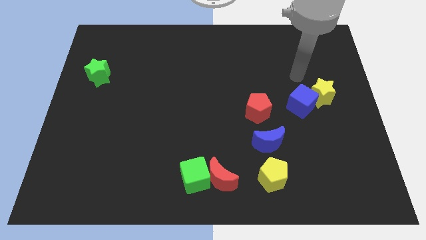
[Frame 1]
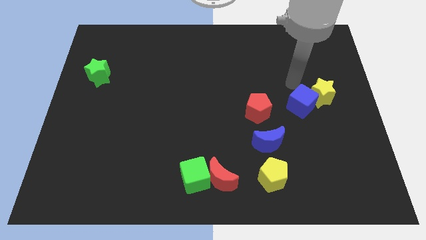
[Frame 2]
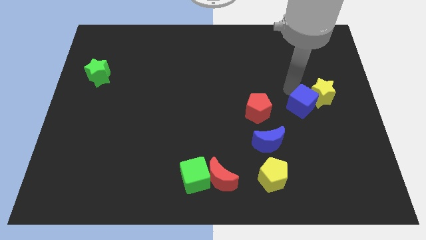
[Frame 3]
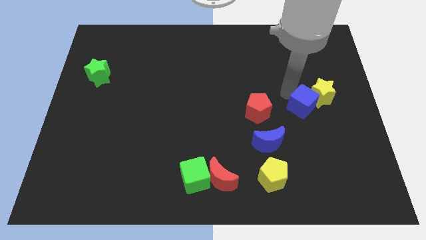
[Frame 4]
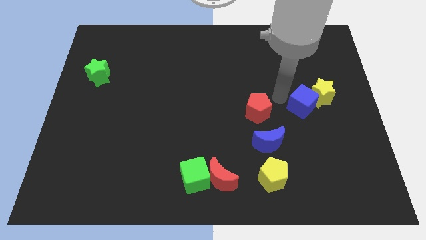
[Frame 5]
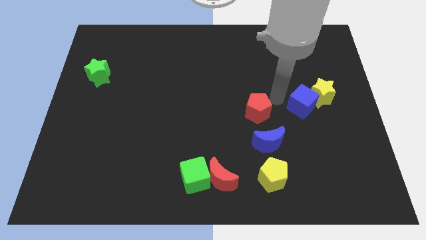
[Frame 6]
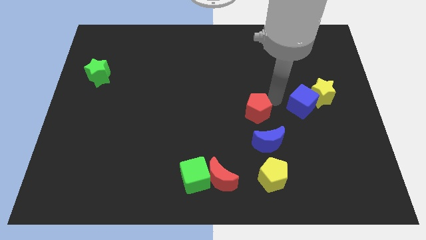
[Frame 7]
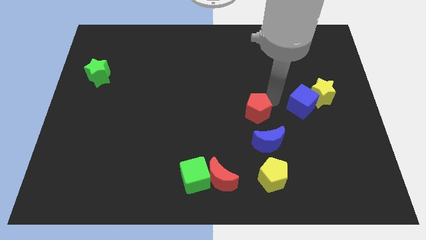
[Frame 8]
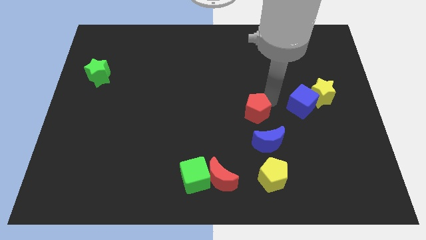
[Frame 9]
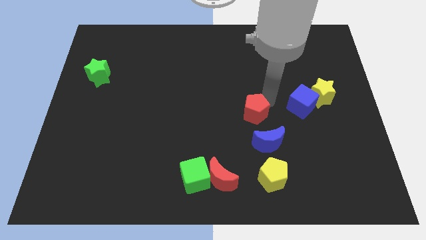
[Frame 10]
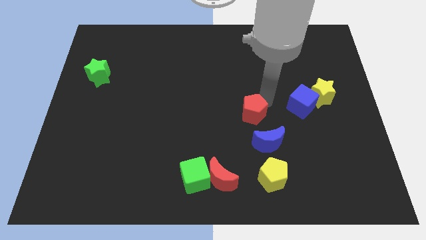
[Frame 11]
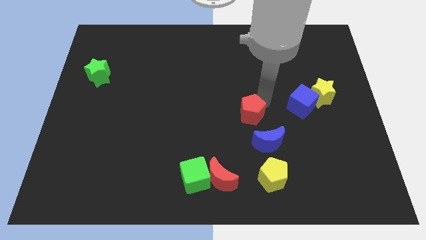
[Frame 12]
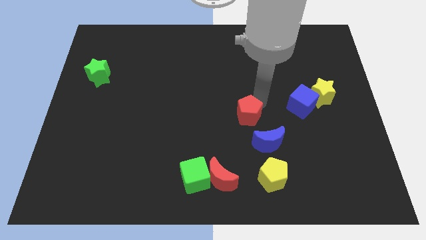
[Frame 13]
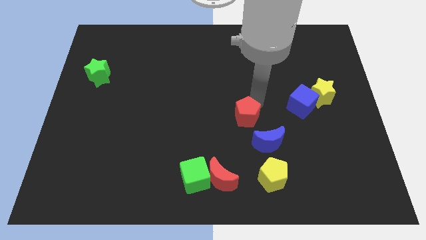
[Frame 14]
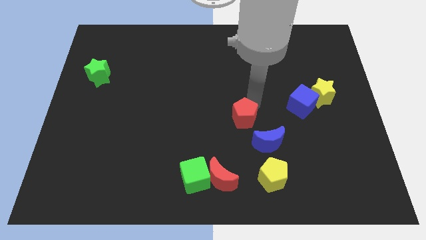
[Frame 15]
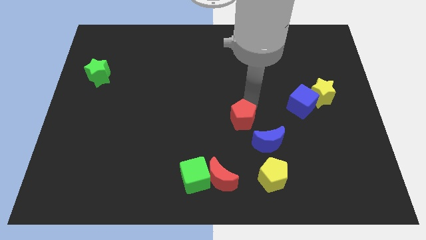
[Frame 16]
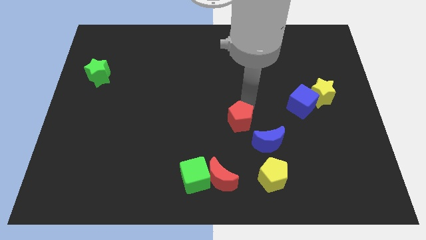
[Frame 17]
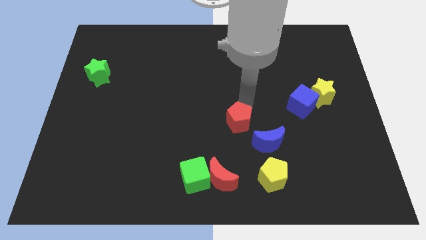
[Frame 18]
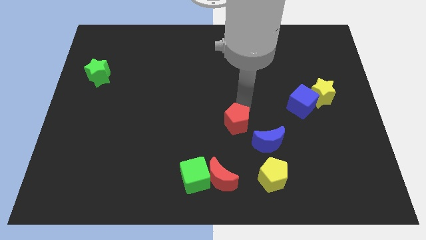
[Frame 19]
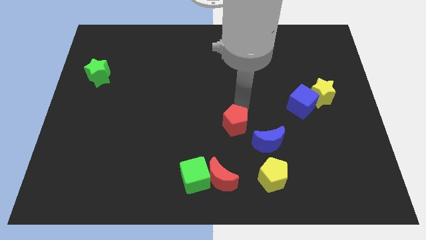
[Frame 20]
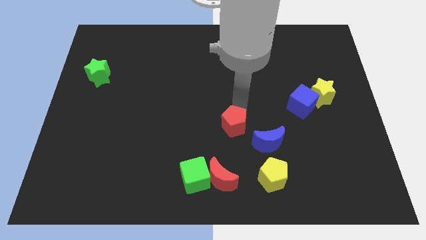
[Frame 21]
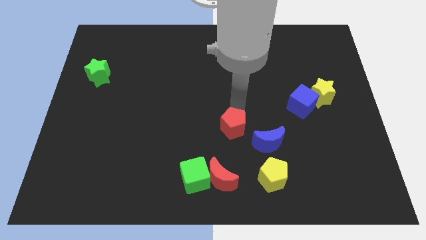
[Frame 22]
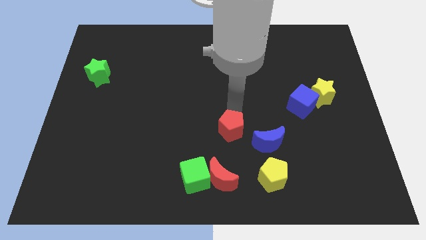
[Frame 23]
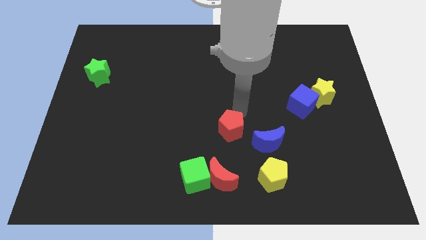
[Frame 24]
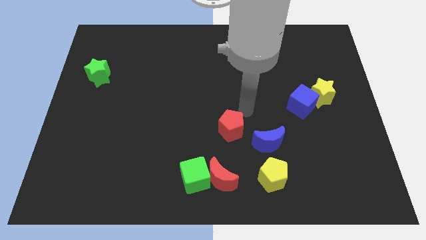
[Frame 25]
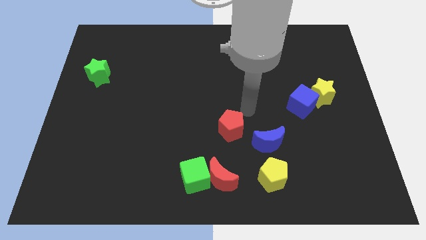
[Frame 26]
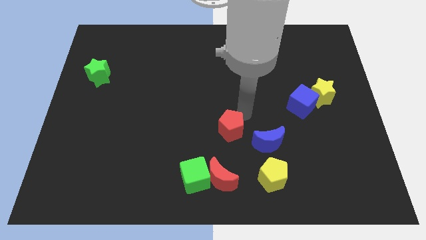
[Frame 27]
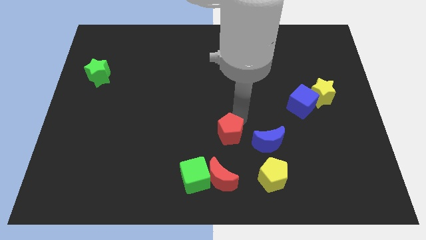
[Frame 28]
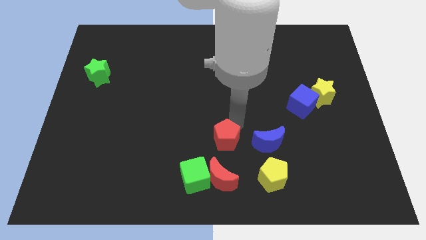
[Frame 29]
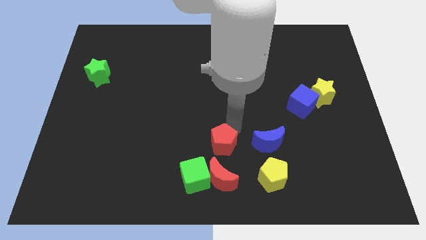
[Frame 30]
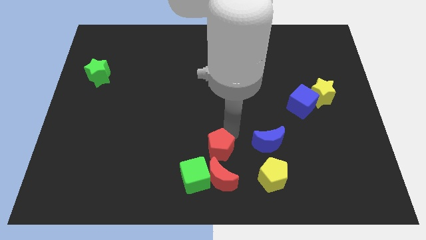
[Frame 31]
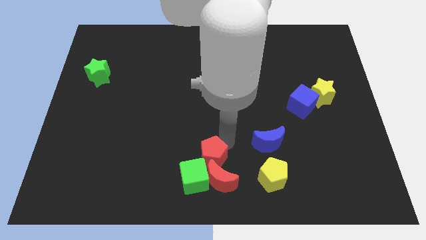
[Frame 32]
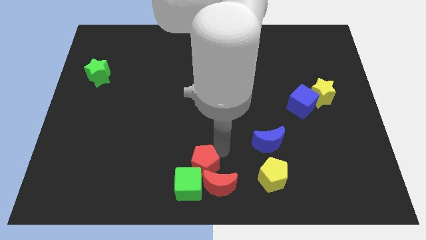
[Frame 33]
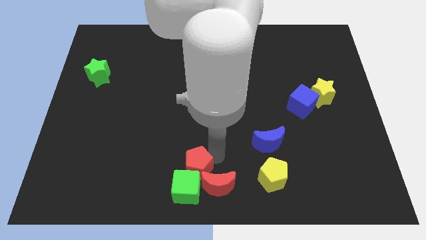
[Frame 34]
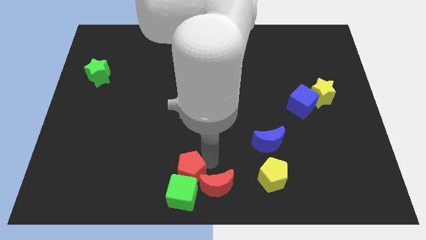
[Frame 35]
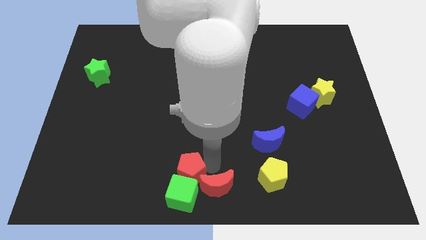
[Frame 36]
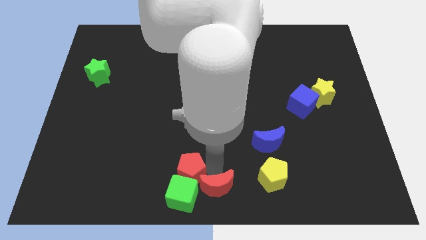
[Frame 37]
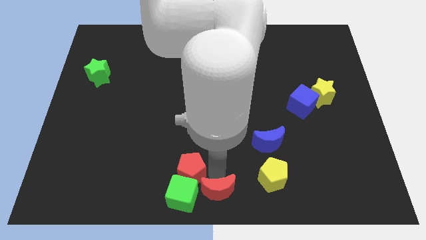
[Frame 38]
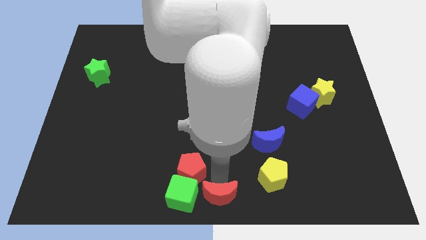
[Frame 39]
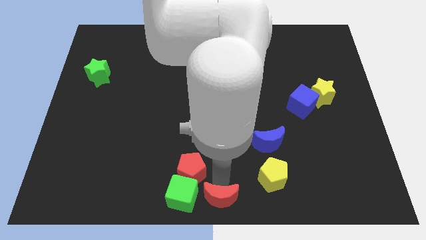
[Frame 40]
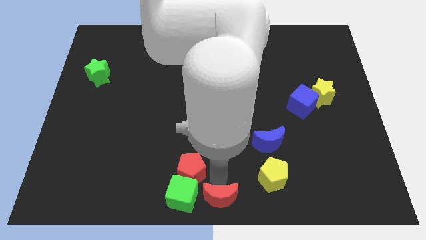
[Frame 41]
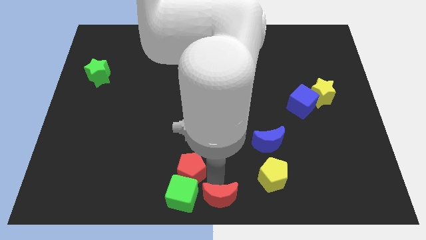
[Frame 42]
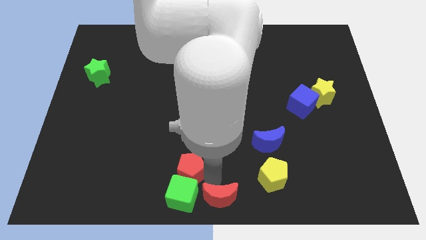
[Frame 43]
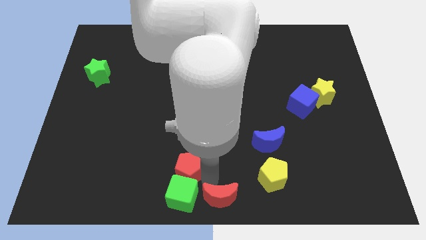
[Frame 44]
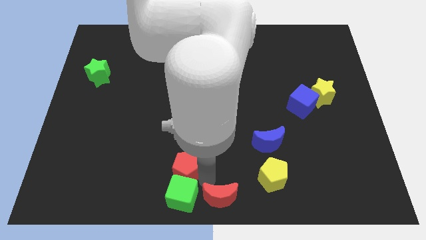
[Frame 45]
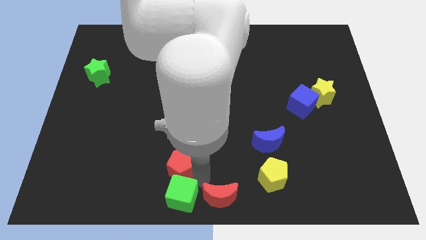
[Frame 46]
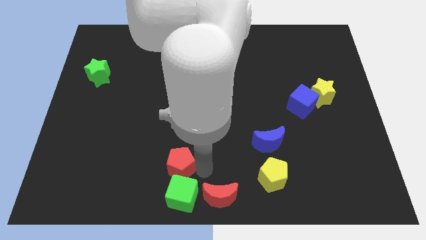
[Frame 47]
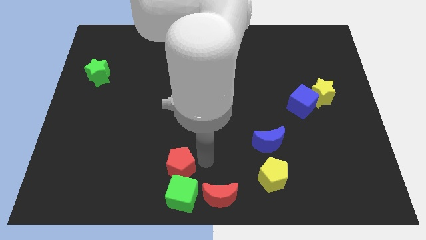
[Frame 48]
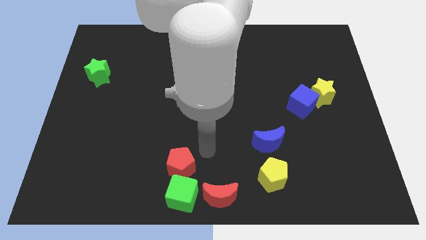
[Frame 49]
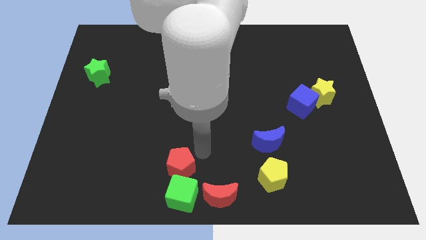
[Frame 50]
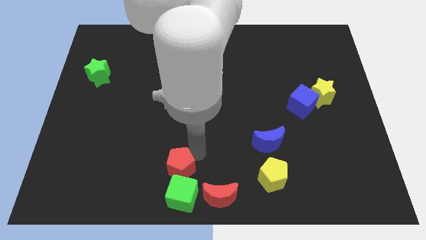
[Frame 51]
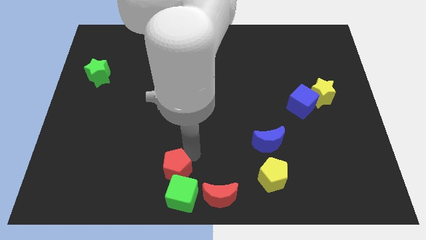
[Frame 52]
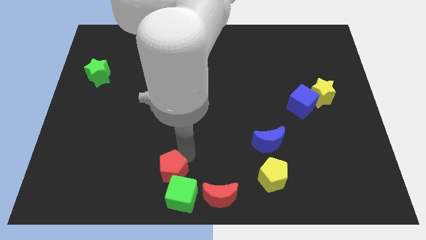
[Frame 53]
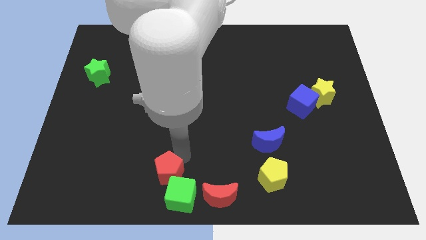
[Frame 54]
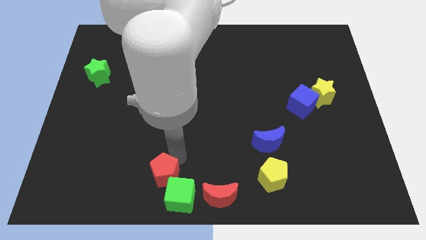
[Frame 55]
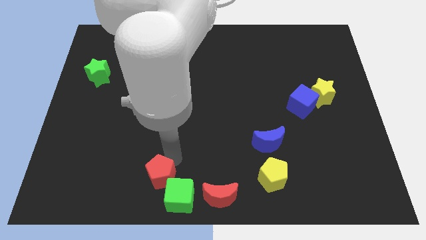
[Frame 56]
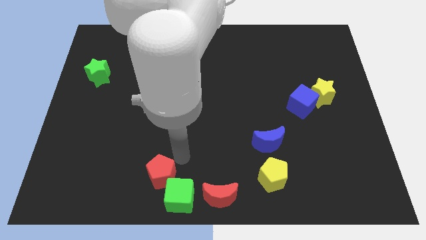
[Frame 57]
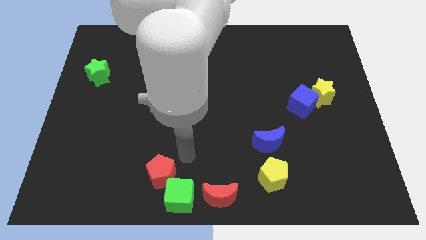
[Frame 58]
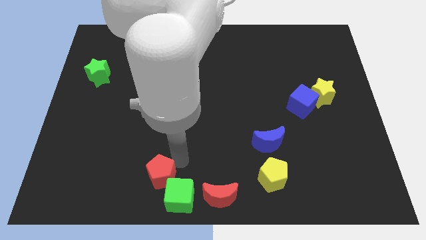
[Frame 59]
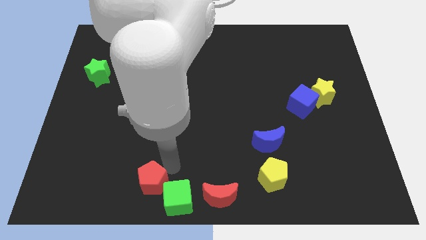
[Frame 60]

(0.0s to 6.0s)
move the red pentagon to the left side of the green cube

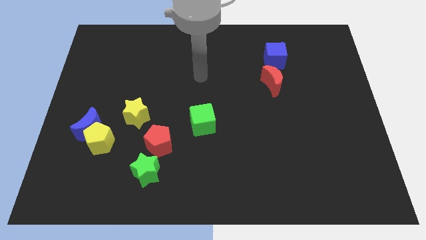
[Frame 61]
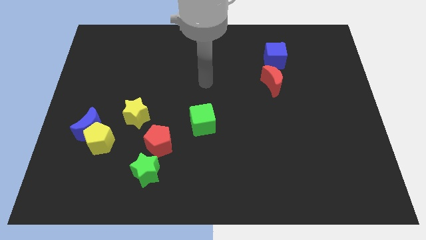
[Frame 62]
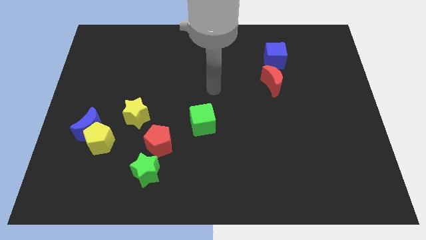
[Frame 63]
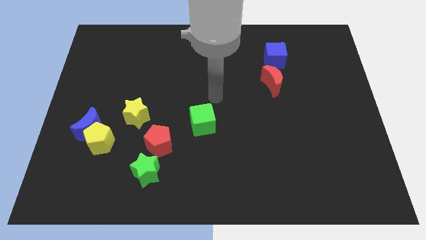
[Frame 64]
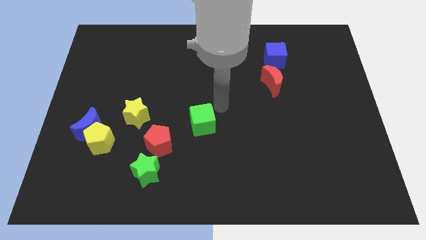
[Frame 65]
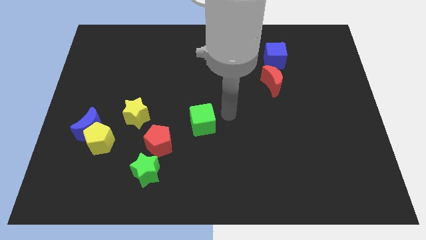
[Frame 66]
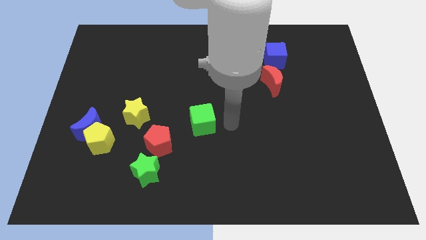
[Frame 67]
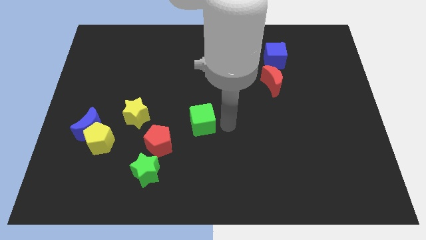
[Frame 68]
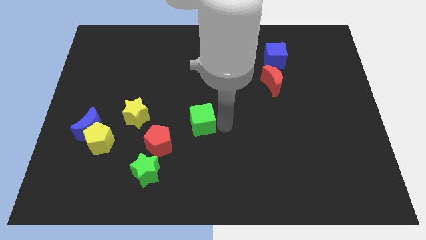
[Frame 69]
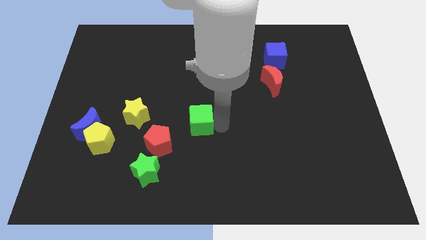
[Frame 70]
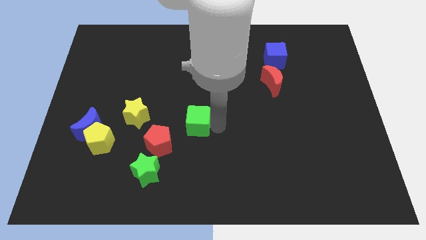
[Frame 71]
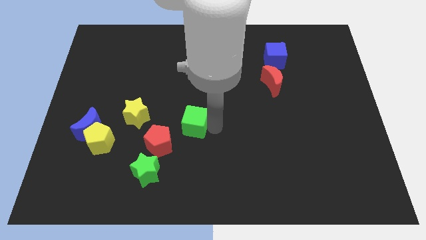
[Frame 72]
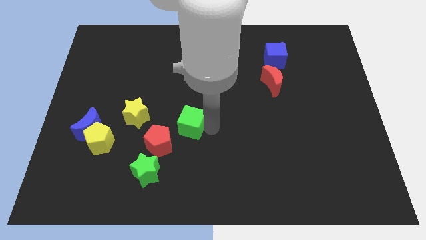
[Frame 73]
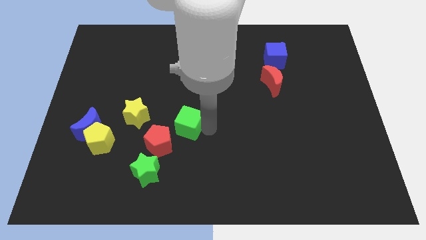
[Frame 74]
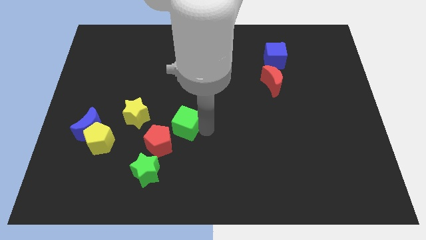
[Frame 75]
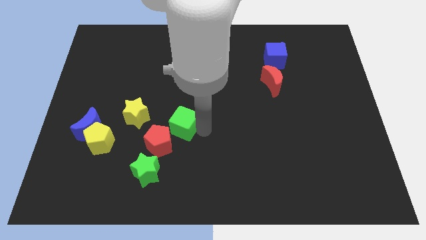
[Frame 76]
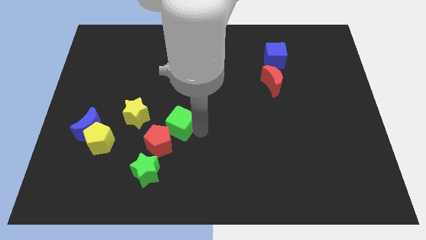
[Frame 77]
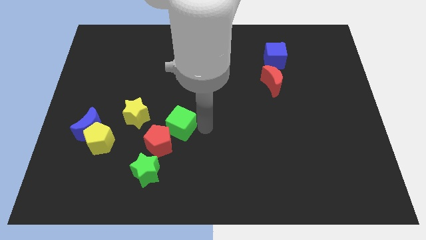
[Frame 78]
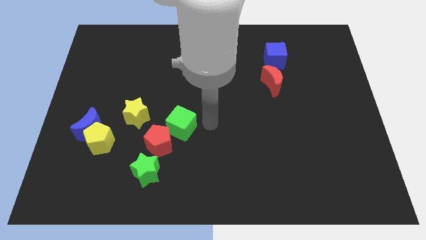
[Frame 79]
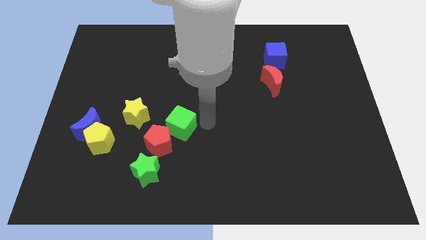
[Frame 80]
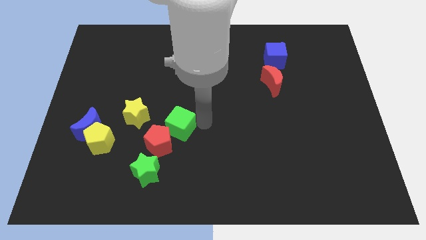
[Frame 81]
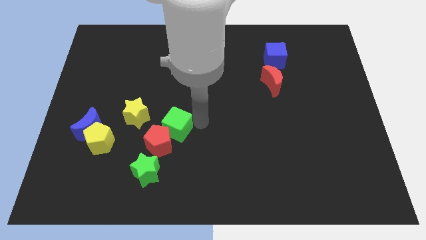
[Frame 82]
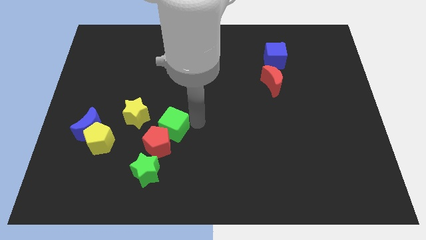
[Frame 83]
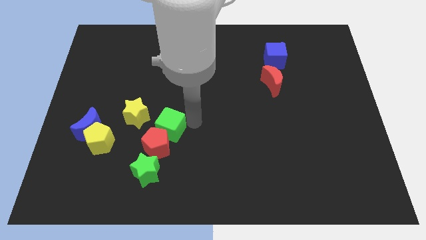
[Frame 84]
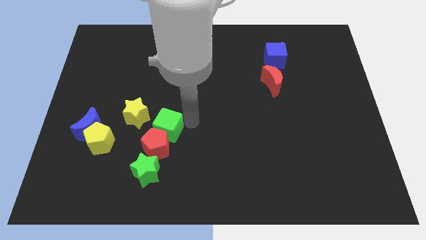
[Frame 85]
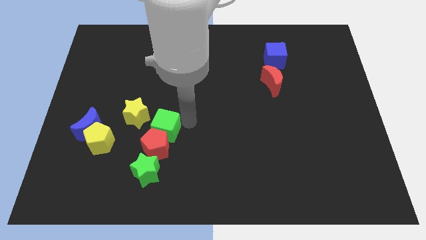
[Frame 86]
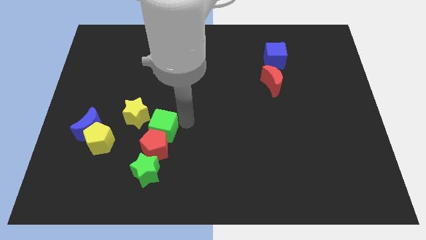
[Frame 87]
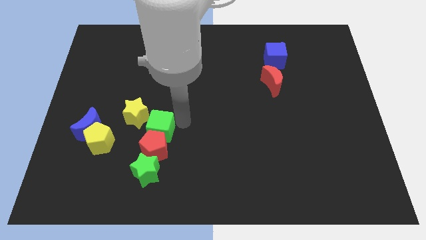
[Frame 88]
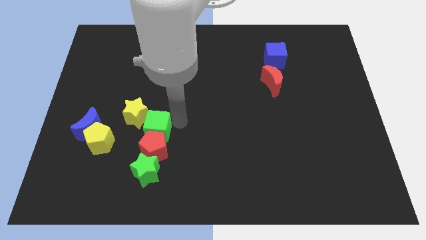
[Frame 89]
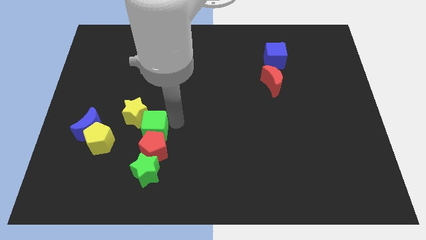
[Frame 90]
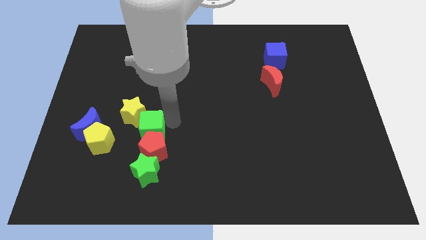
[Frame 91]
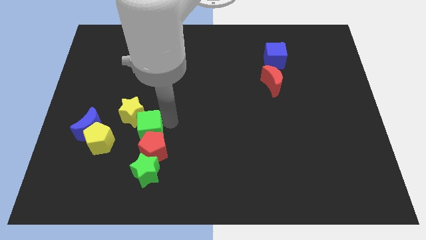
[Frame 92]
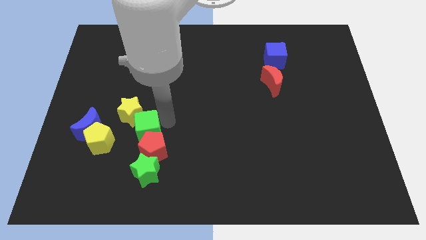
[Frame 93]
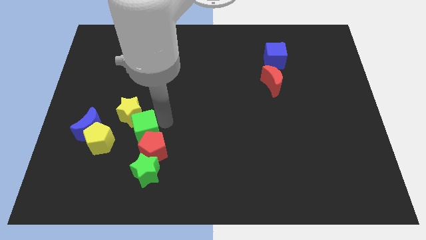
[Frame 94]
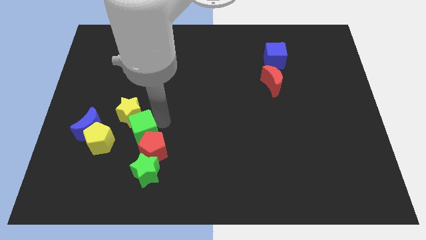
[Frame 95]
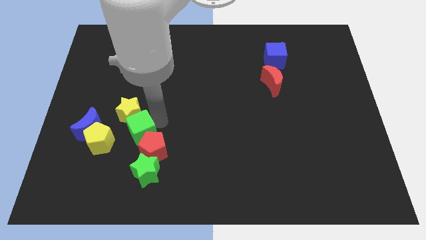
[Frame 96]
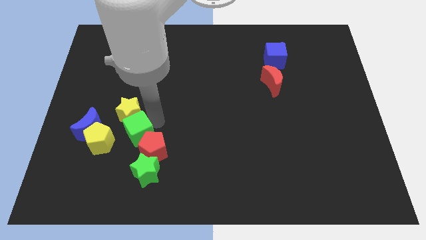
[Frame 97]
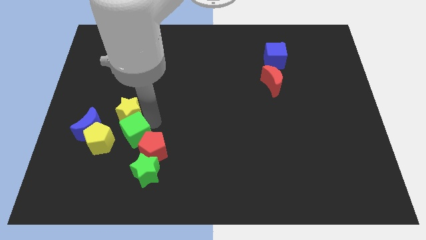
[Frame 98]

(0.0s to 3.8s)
slide the green cube diagonally up and to the left of the green star
